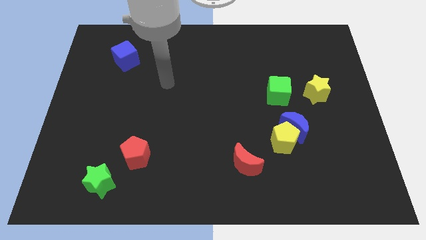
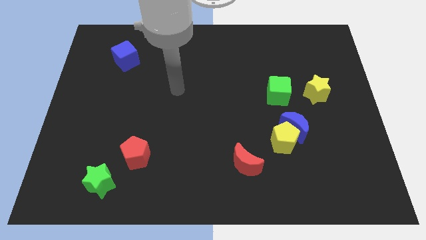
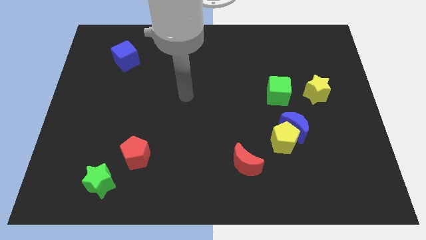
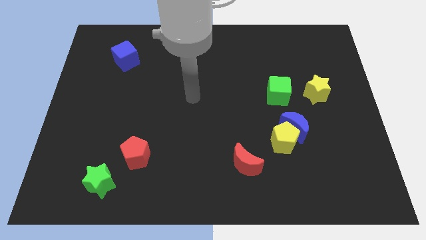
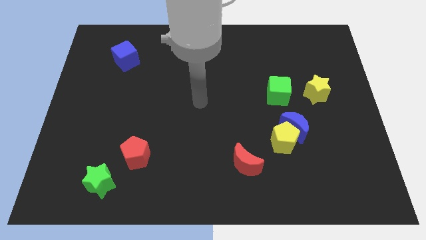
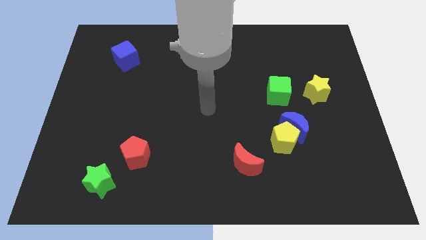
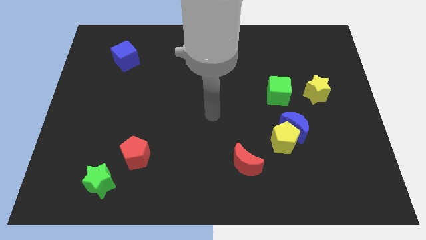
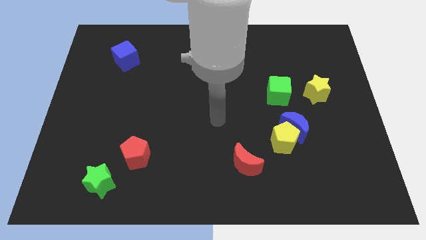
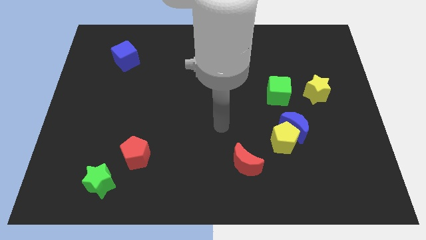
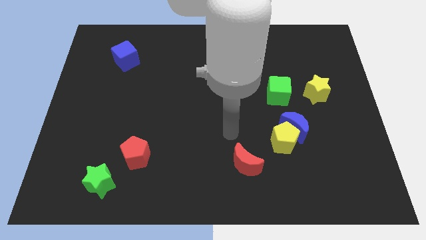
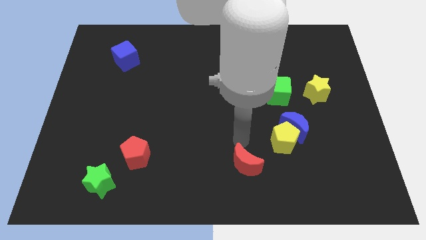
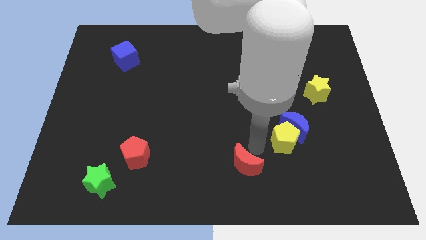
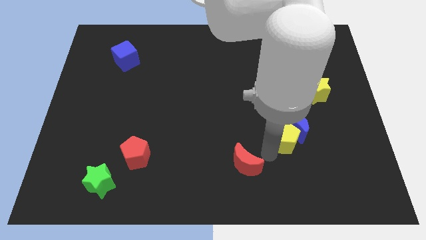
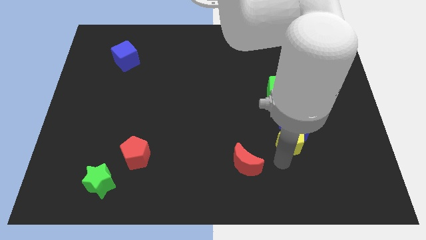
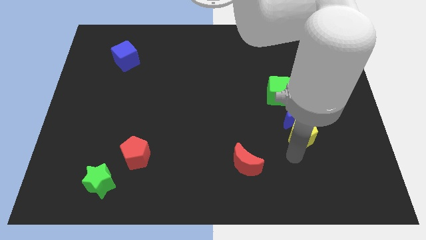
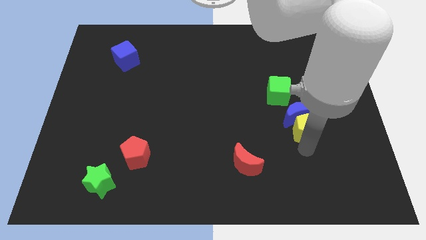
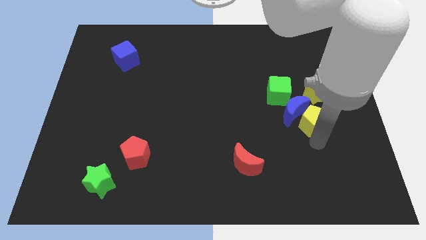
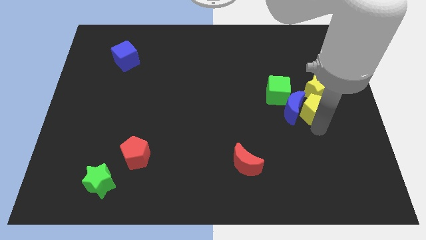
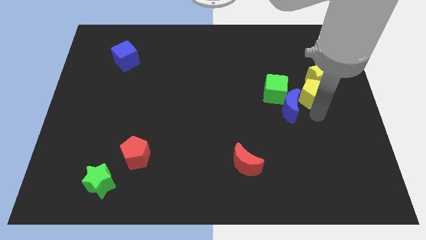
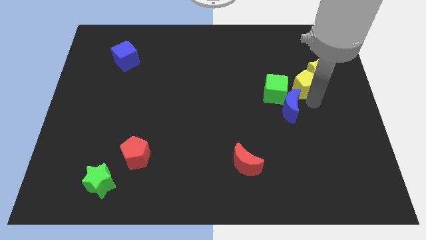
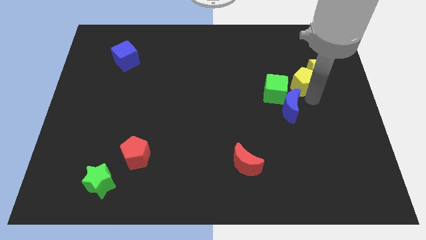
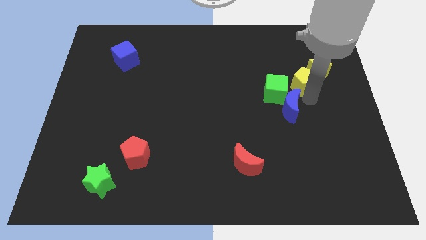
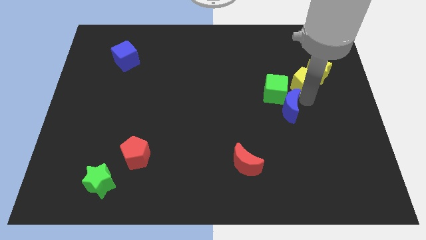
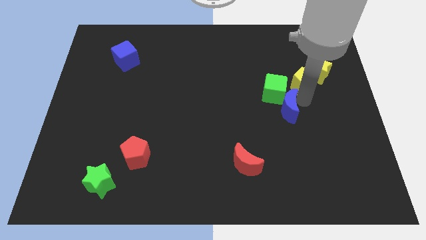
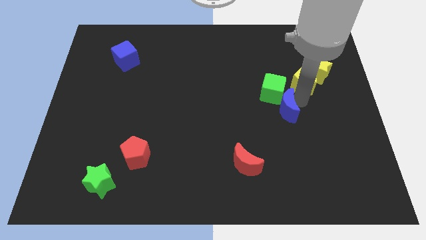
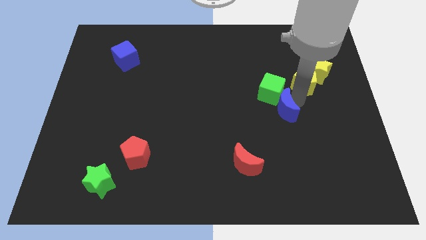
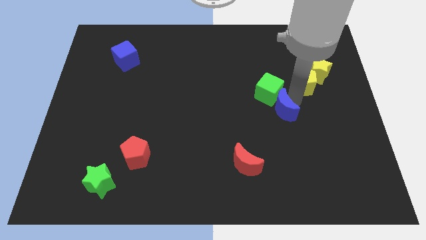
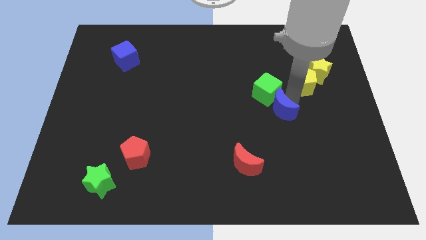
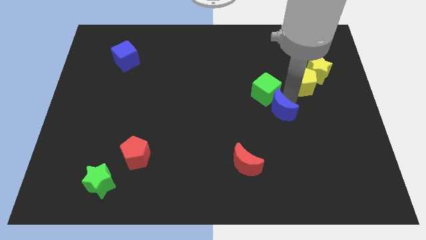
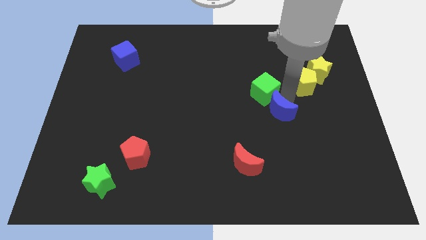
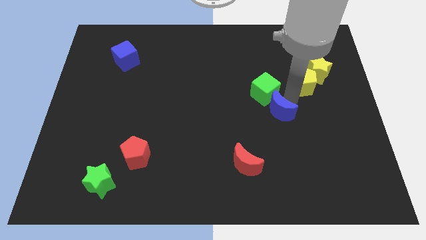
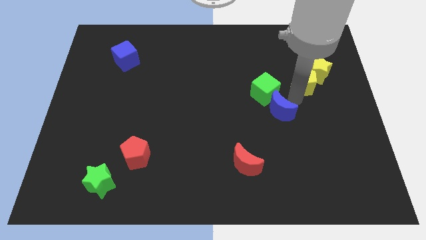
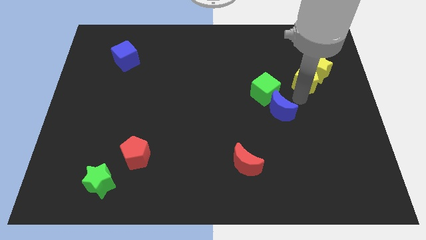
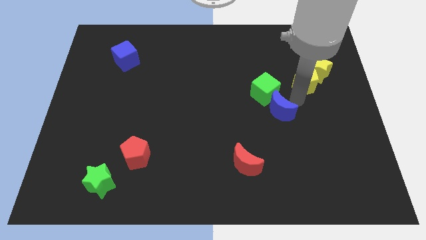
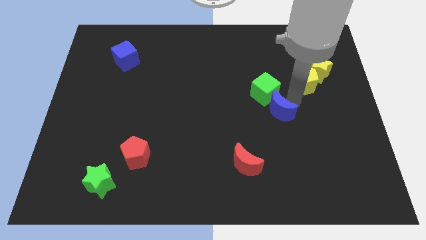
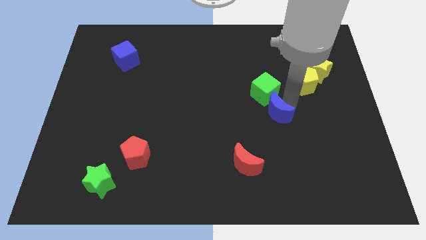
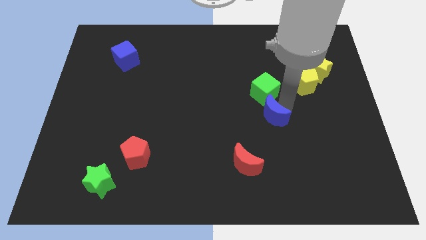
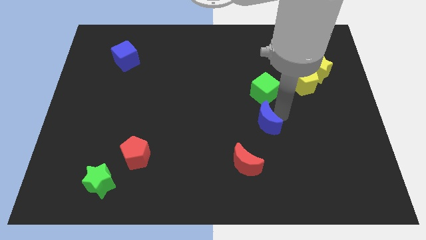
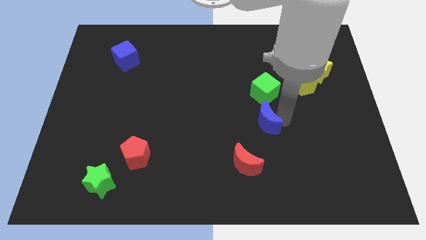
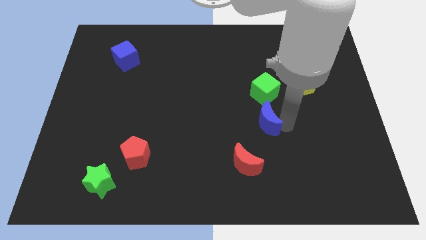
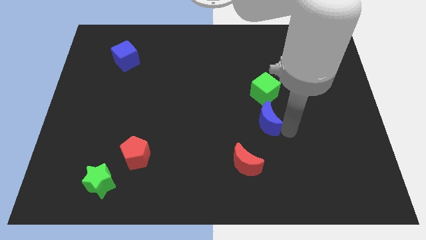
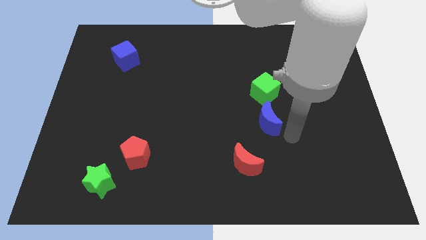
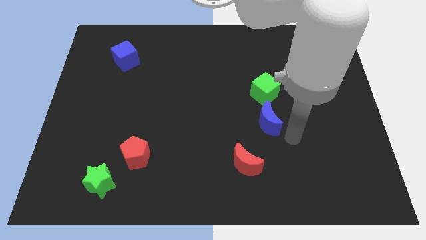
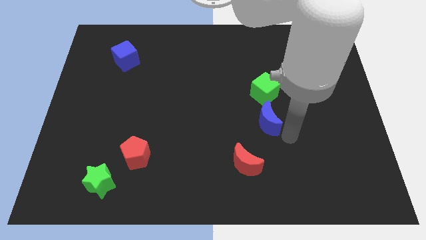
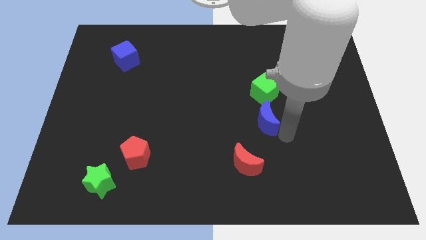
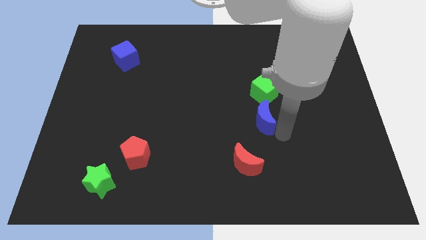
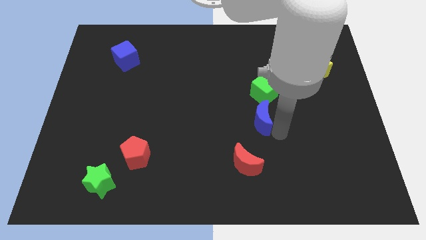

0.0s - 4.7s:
move the blue moon to the middle of the board

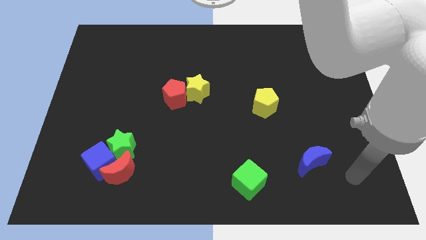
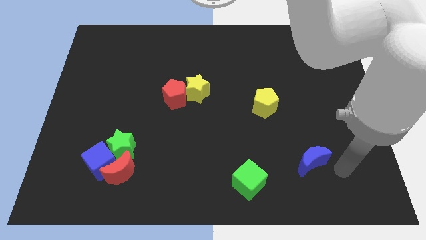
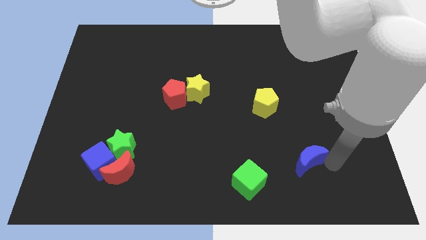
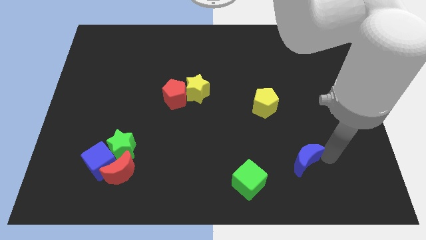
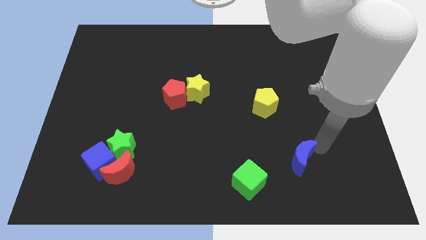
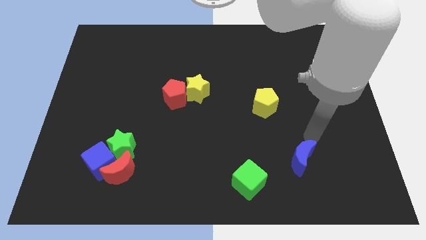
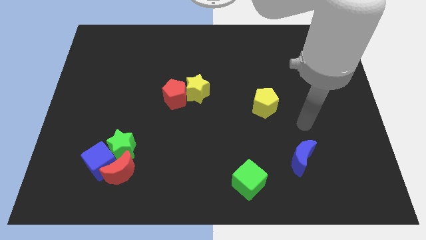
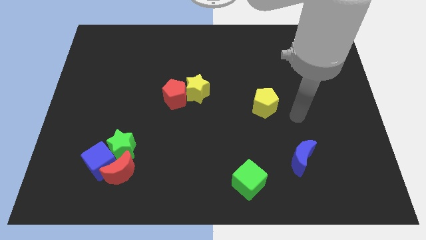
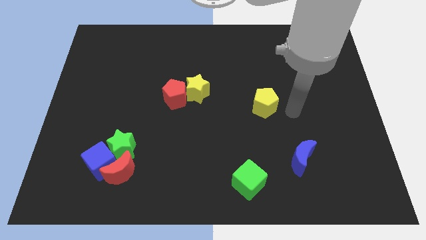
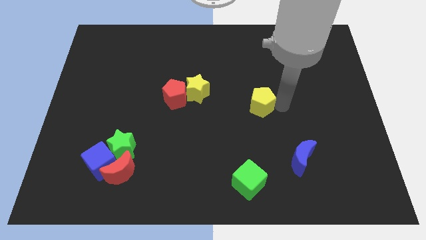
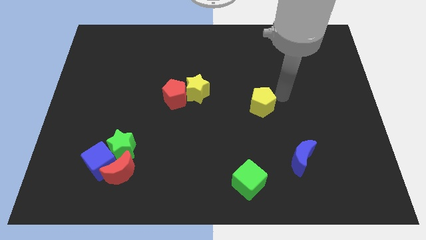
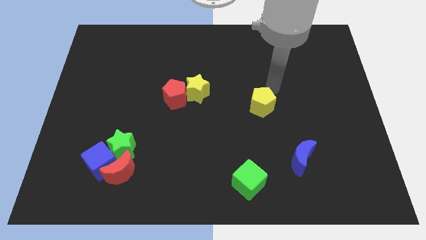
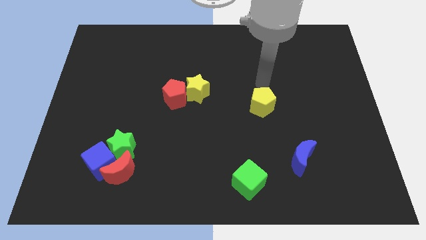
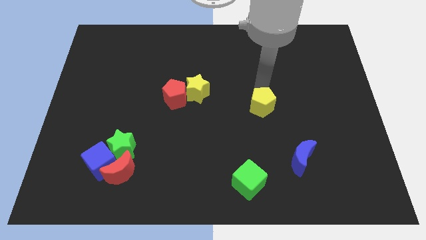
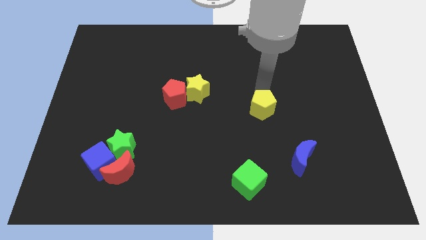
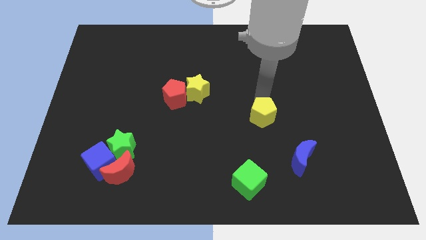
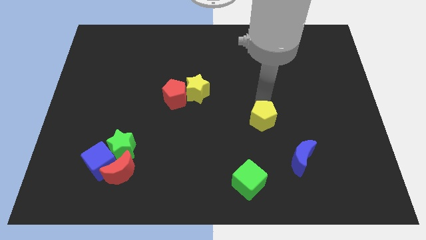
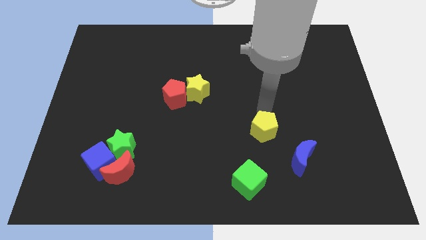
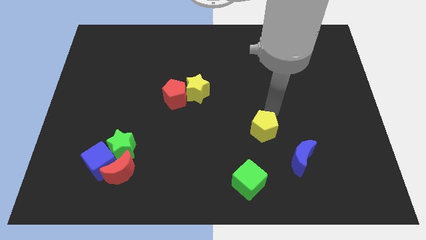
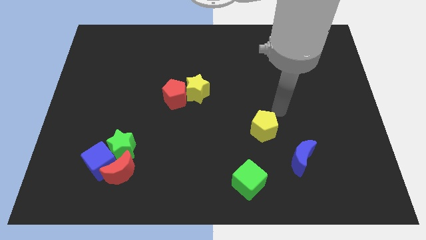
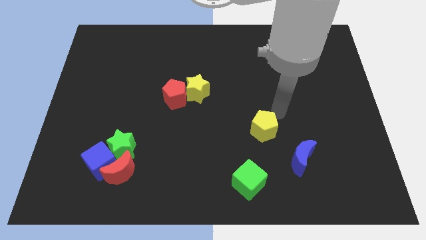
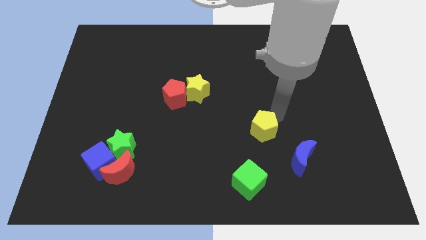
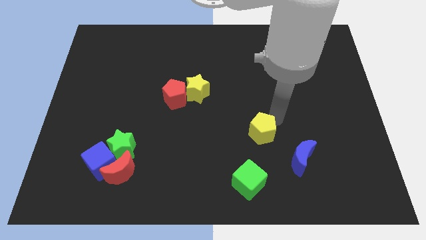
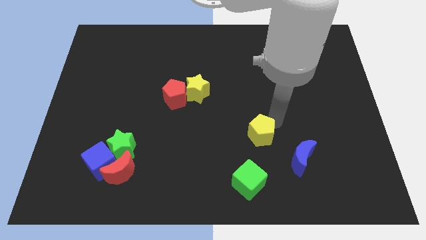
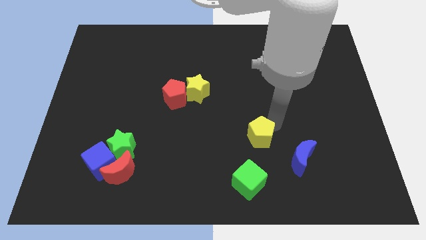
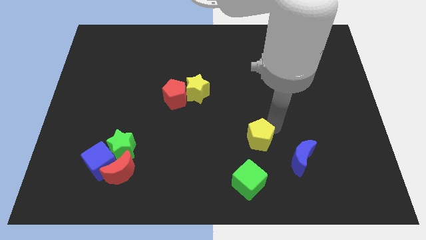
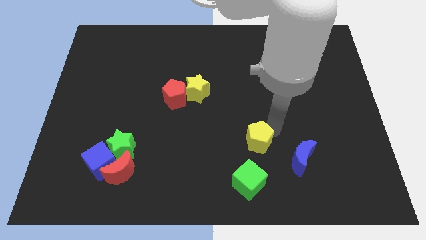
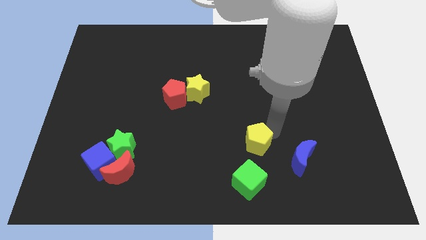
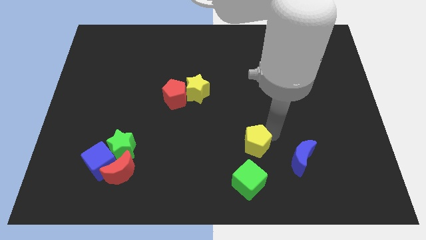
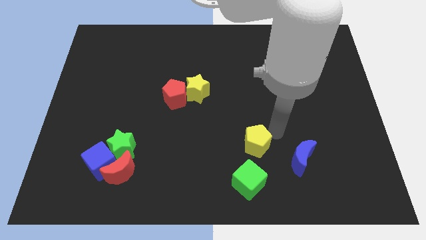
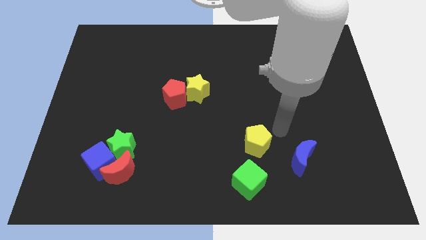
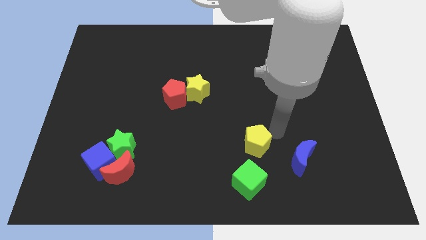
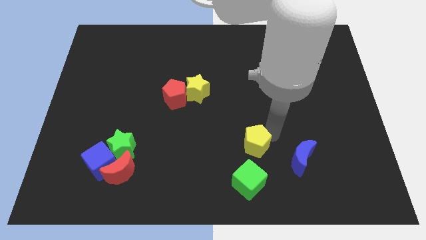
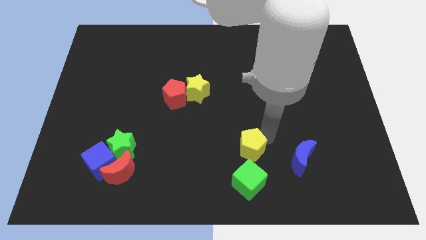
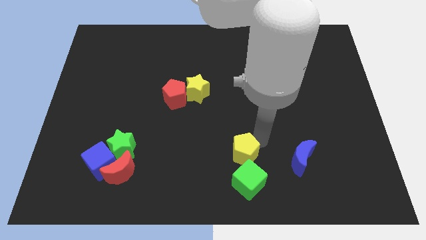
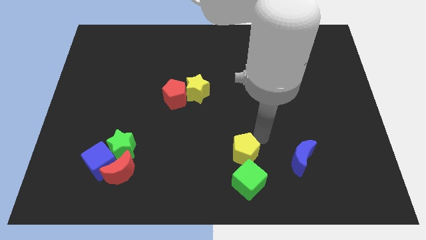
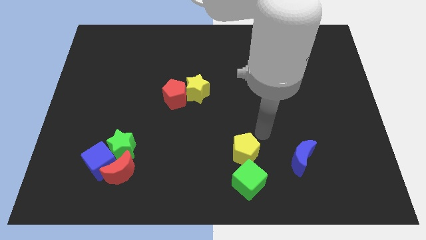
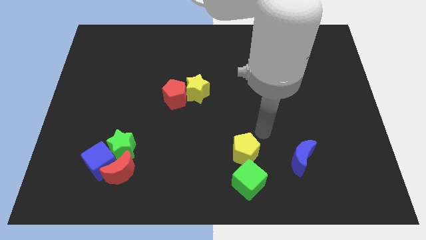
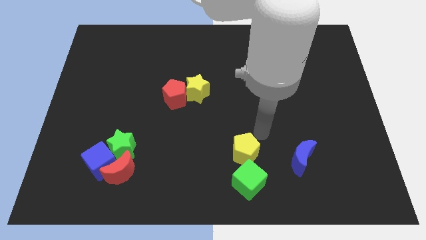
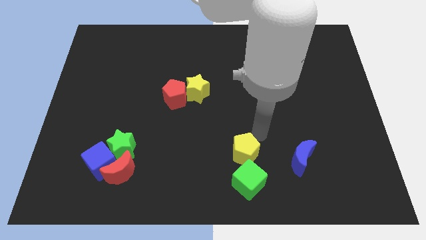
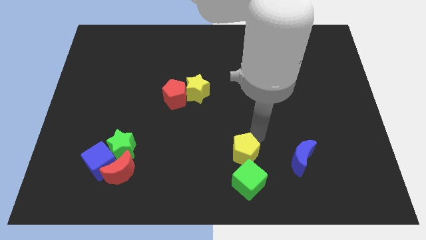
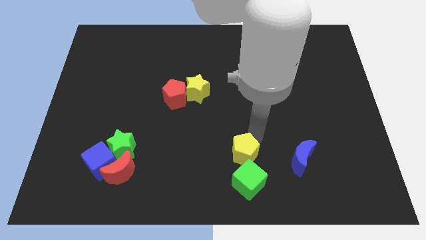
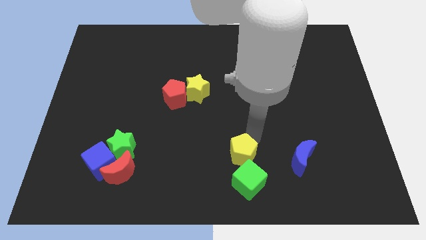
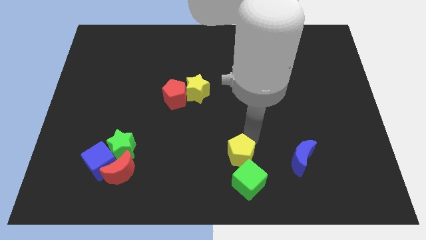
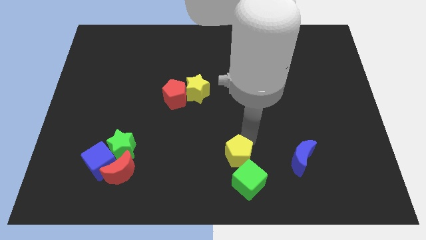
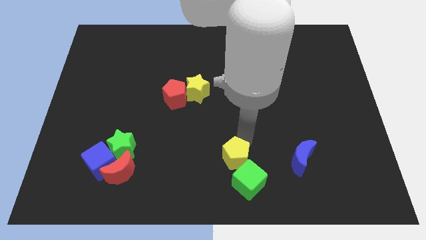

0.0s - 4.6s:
move the yellow pentagon to the bottom
